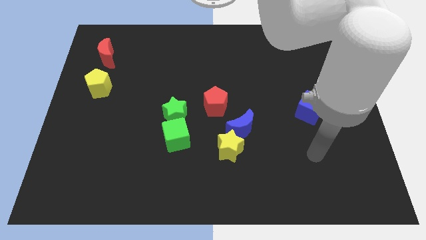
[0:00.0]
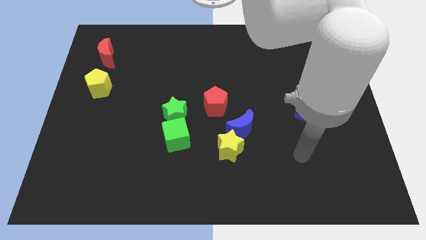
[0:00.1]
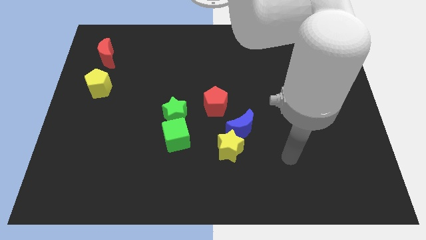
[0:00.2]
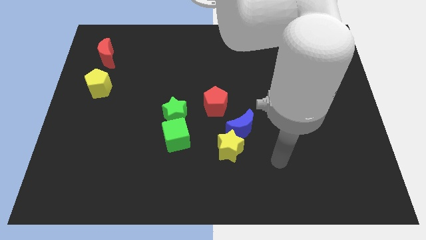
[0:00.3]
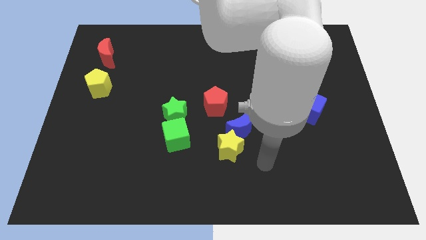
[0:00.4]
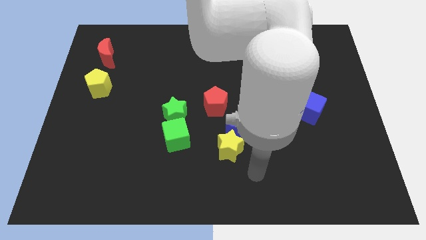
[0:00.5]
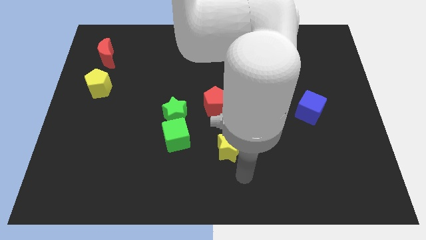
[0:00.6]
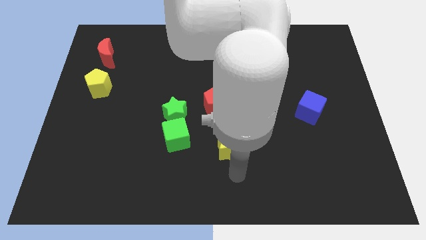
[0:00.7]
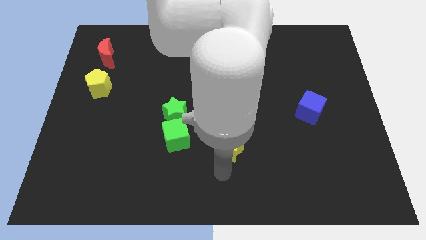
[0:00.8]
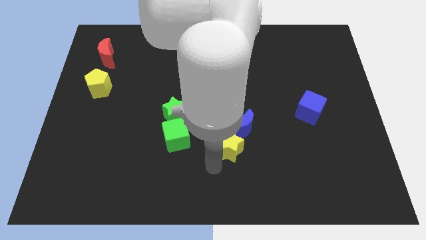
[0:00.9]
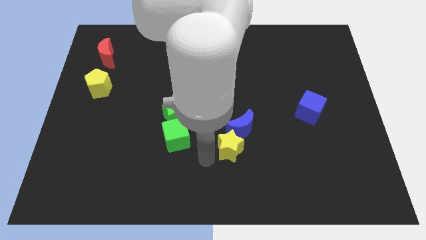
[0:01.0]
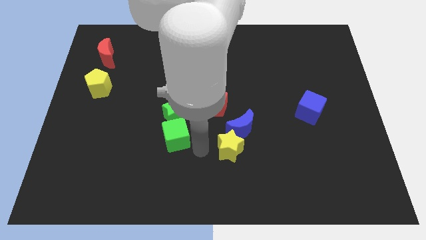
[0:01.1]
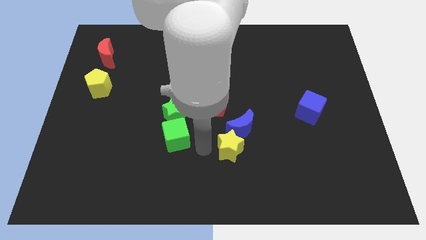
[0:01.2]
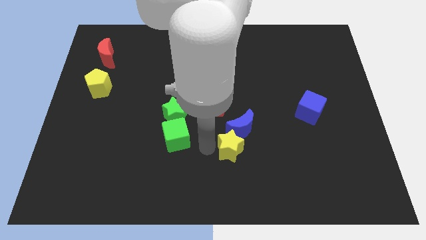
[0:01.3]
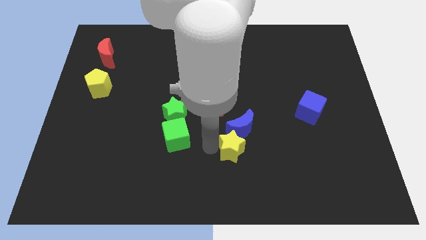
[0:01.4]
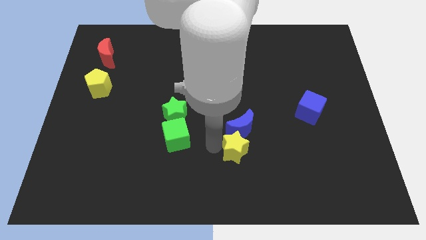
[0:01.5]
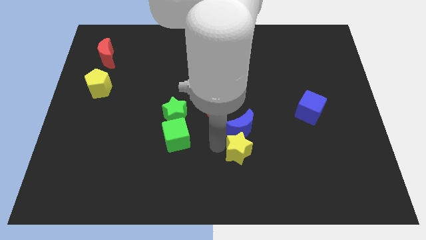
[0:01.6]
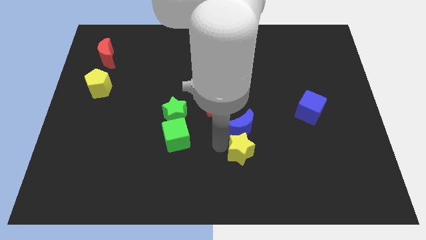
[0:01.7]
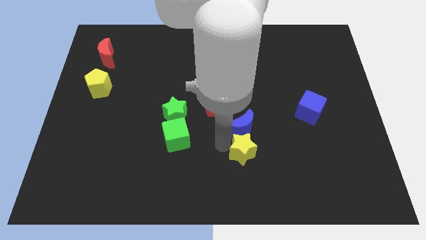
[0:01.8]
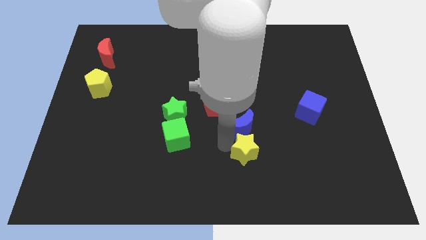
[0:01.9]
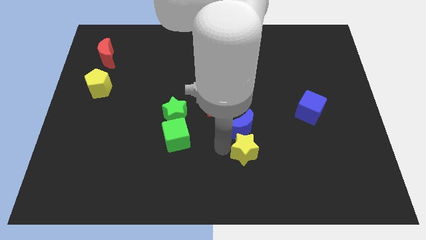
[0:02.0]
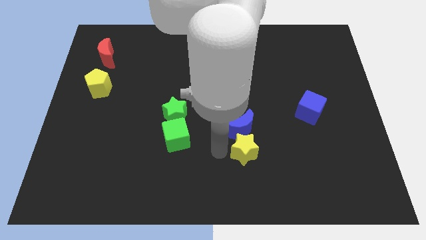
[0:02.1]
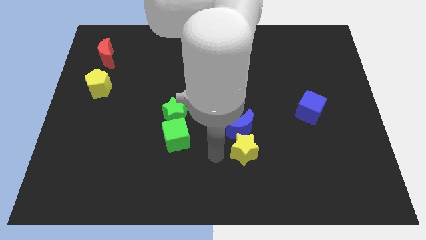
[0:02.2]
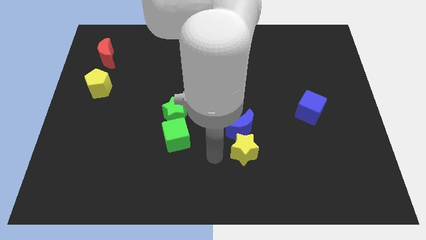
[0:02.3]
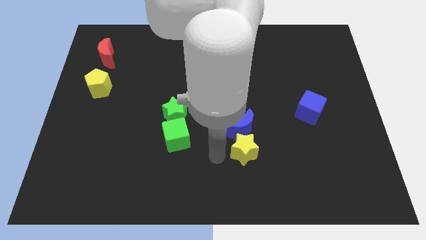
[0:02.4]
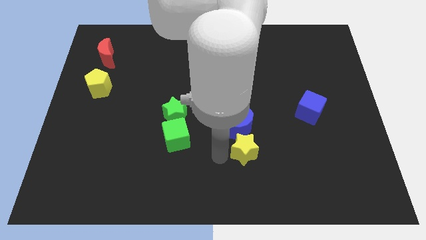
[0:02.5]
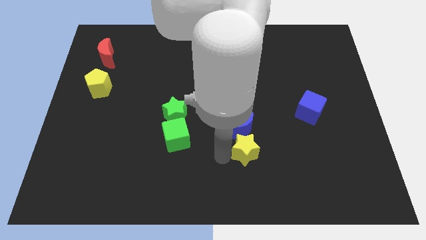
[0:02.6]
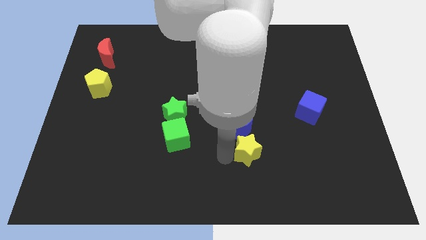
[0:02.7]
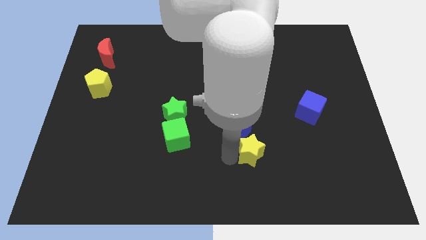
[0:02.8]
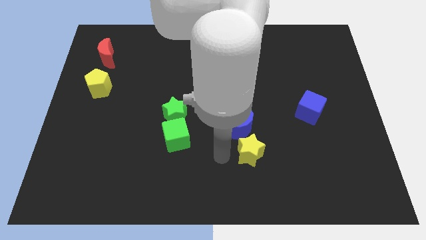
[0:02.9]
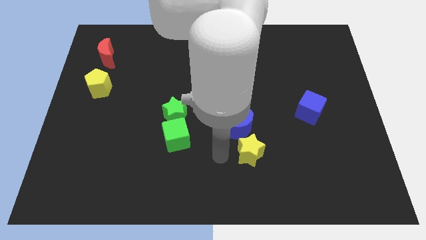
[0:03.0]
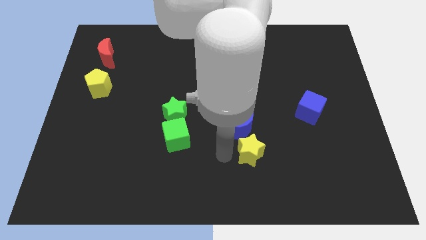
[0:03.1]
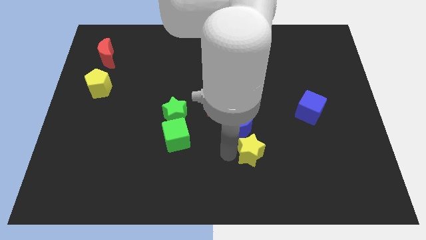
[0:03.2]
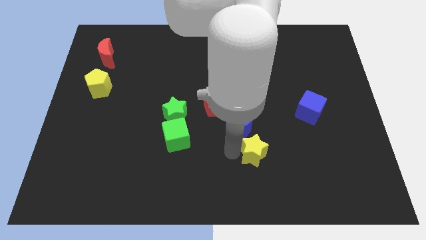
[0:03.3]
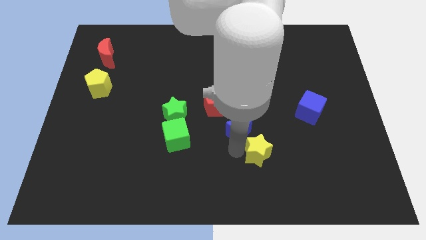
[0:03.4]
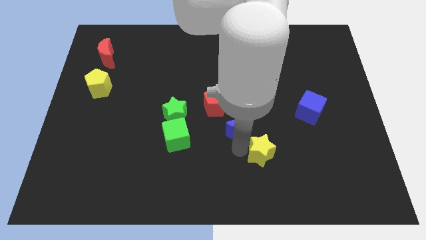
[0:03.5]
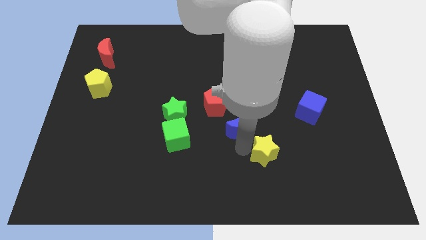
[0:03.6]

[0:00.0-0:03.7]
slightly move the yellow star right

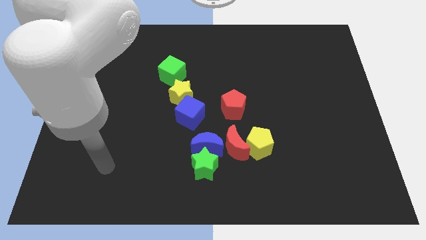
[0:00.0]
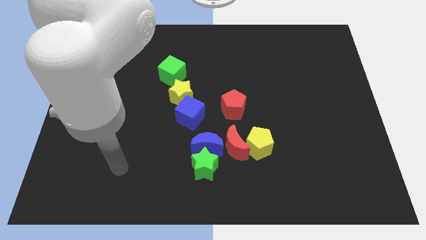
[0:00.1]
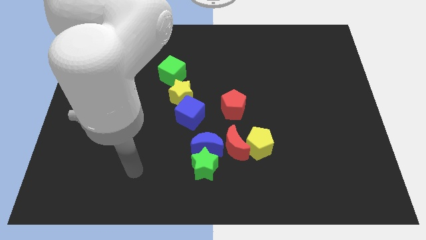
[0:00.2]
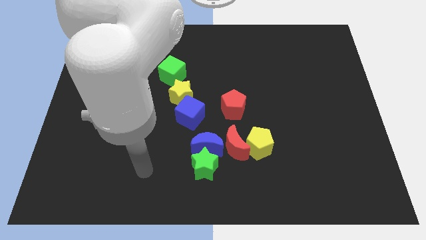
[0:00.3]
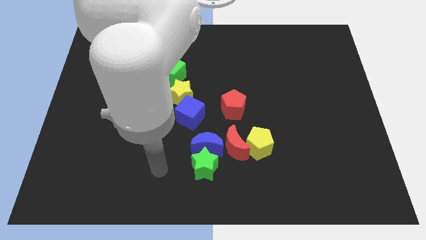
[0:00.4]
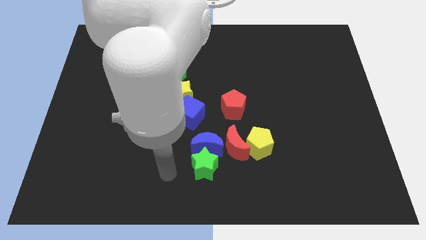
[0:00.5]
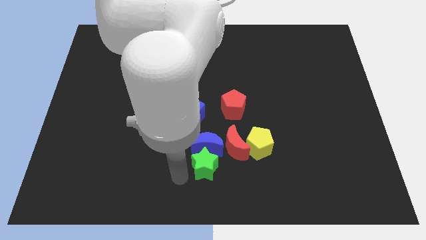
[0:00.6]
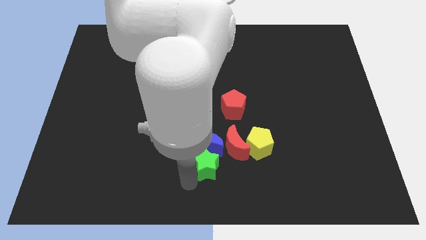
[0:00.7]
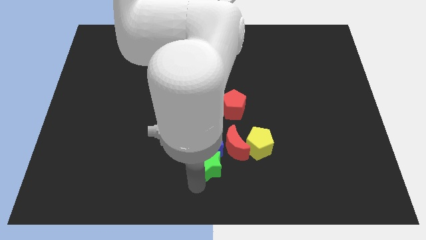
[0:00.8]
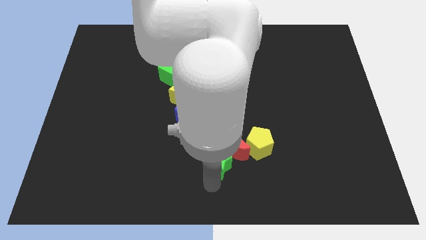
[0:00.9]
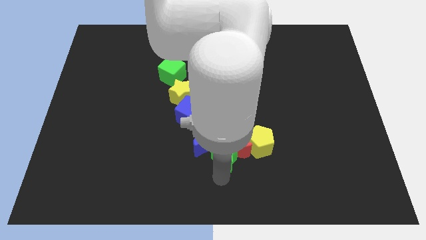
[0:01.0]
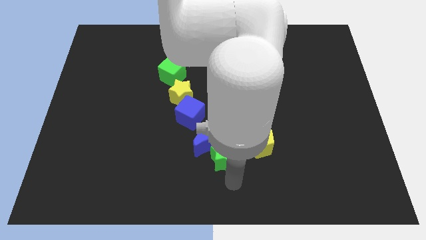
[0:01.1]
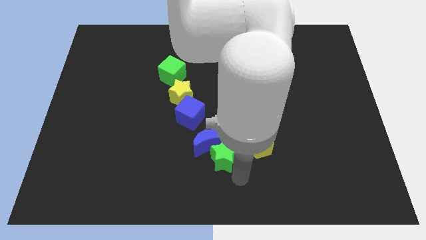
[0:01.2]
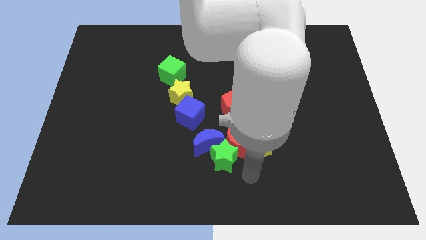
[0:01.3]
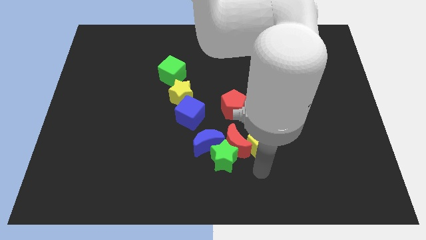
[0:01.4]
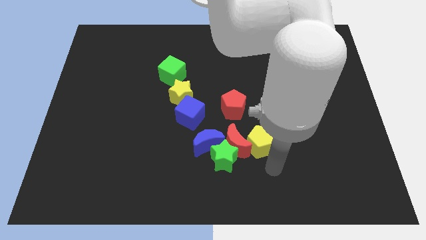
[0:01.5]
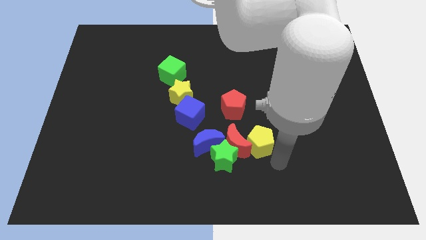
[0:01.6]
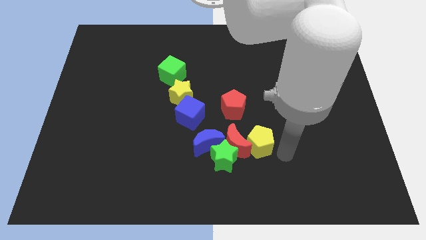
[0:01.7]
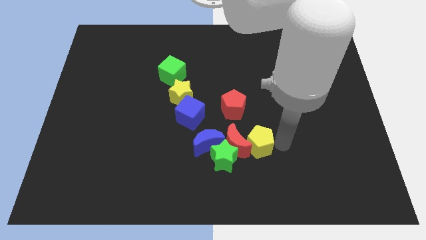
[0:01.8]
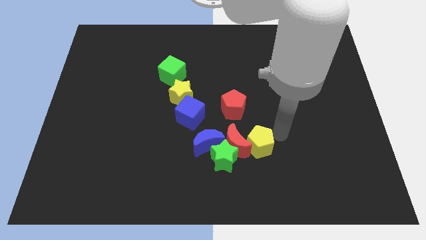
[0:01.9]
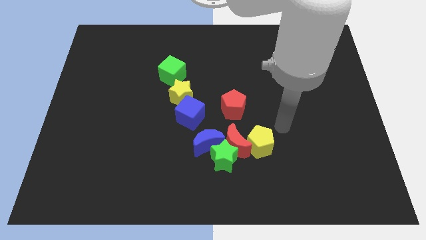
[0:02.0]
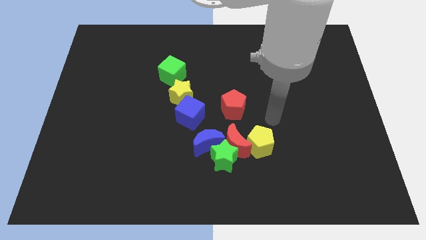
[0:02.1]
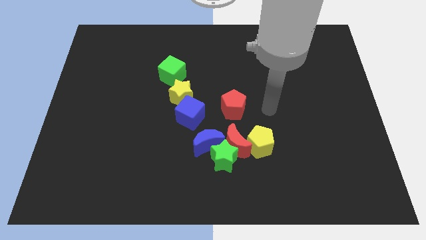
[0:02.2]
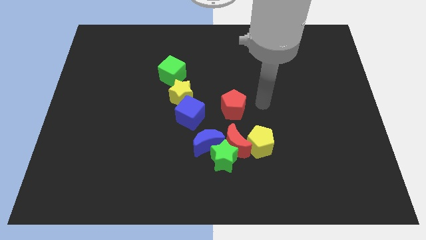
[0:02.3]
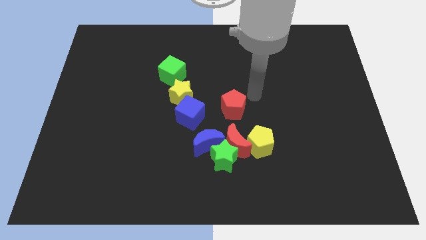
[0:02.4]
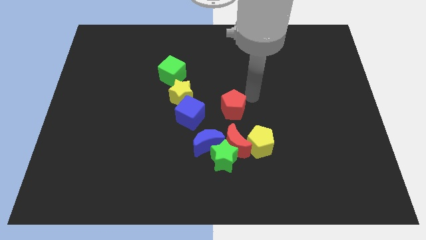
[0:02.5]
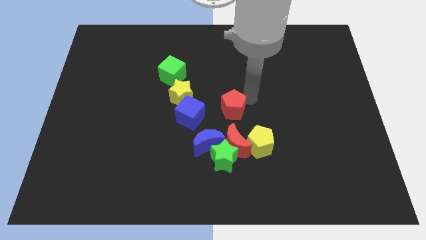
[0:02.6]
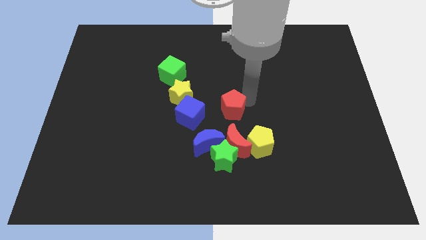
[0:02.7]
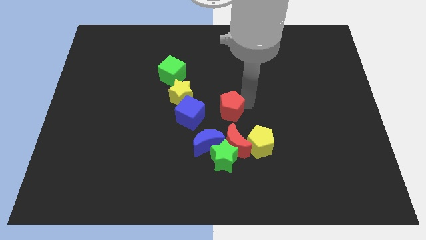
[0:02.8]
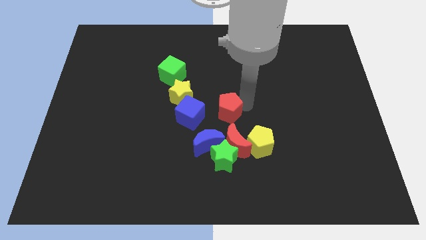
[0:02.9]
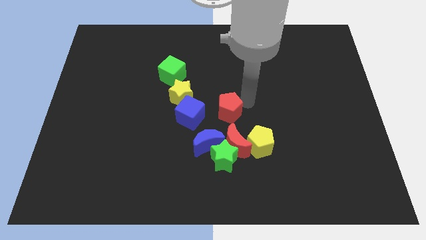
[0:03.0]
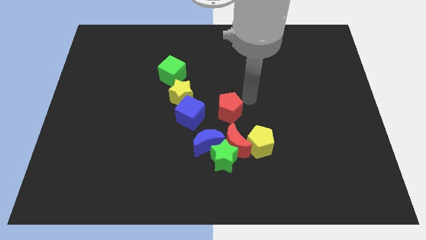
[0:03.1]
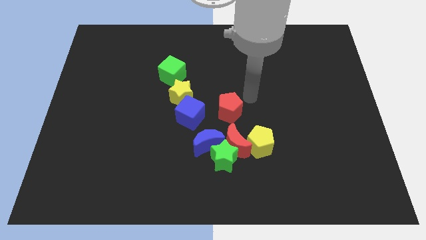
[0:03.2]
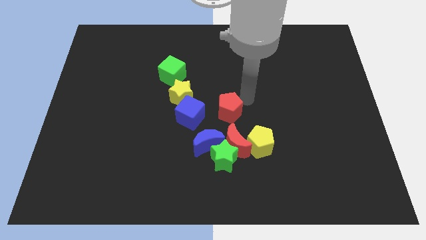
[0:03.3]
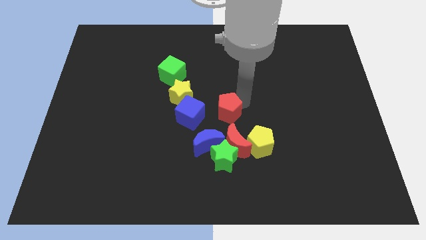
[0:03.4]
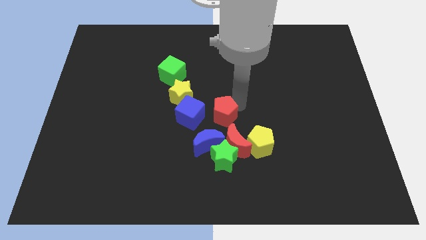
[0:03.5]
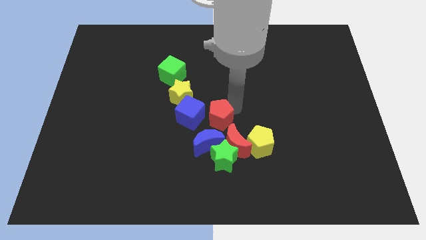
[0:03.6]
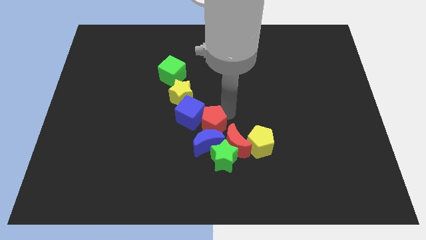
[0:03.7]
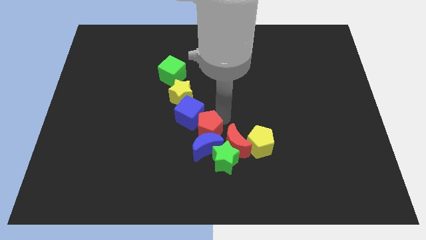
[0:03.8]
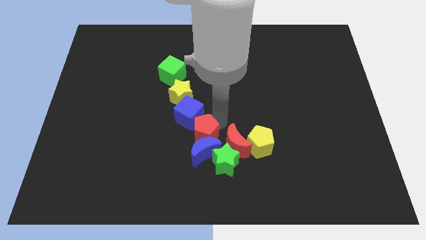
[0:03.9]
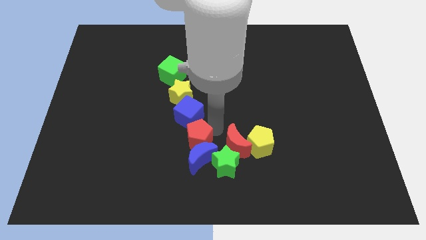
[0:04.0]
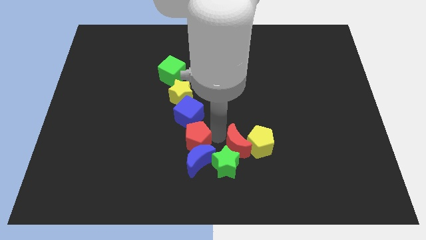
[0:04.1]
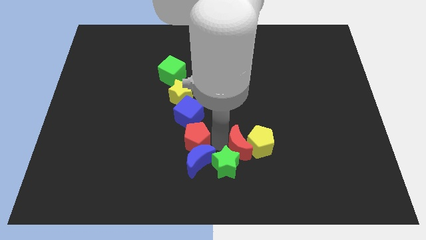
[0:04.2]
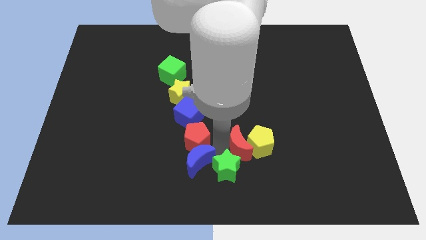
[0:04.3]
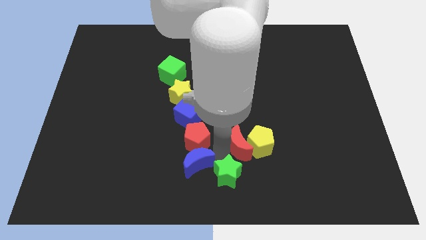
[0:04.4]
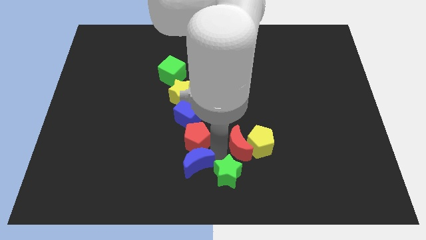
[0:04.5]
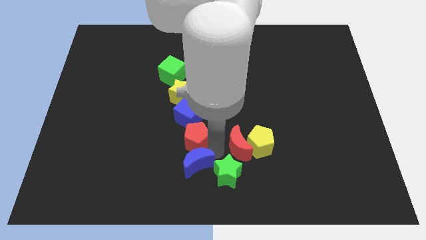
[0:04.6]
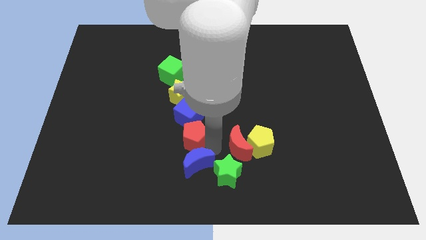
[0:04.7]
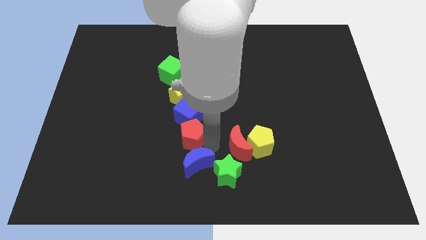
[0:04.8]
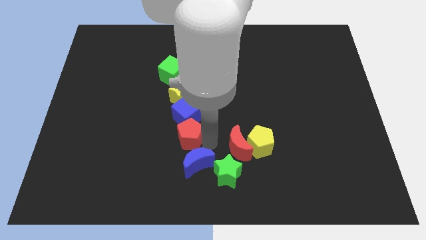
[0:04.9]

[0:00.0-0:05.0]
slide the red pentagon a little to the left
